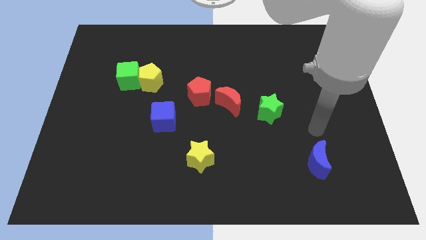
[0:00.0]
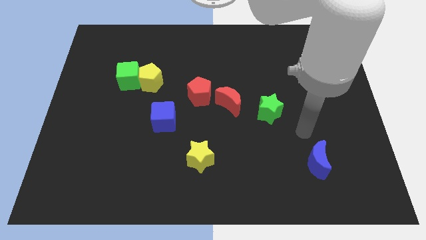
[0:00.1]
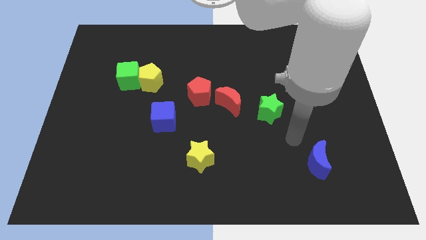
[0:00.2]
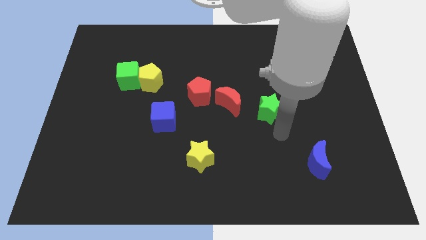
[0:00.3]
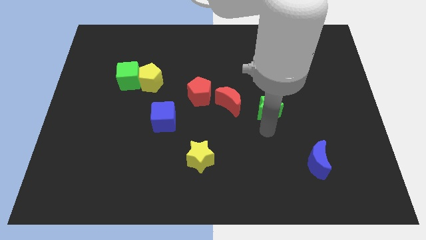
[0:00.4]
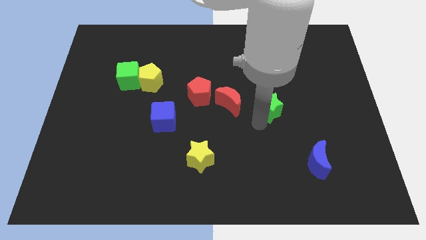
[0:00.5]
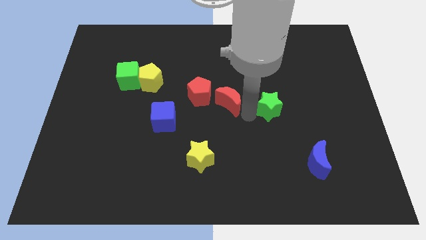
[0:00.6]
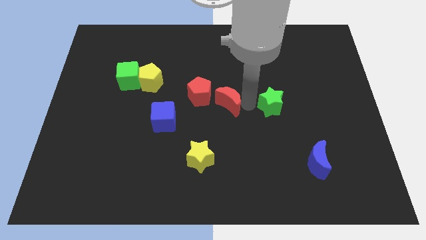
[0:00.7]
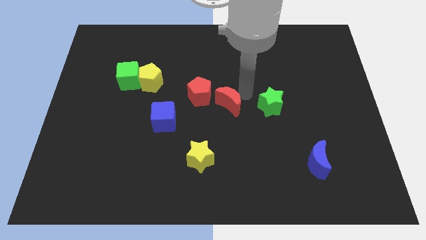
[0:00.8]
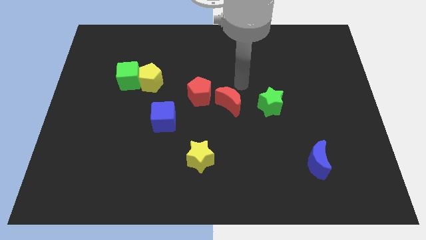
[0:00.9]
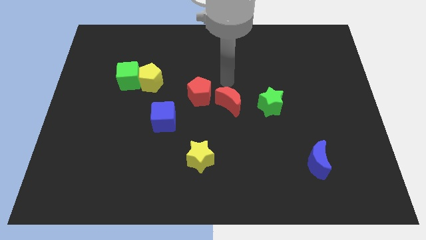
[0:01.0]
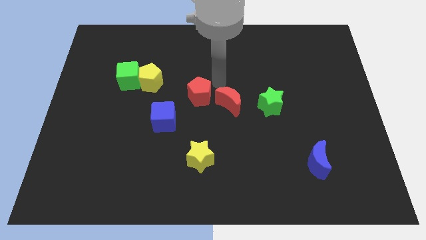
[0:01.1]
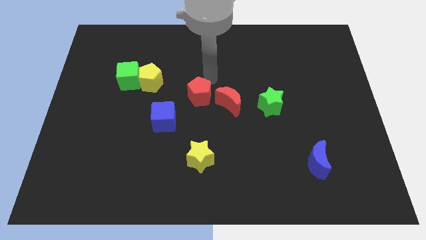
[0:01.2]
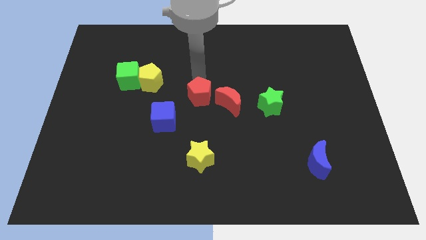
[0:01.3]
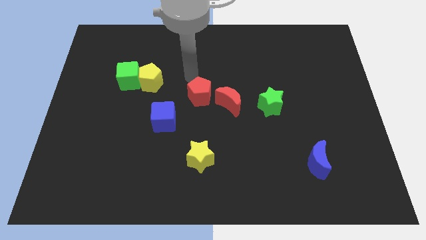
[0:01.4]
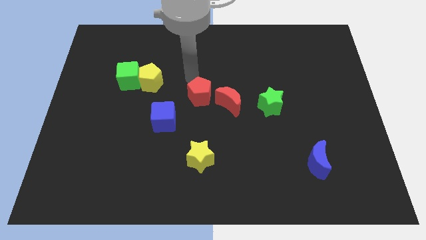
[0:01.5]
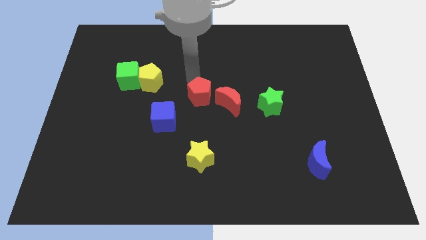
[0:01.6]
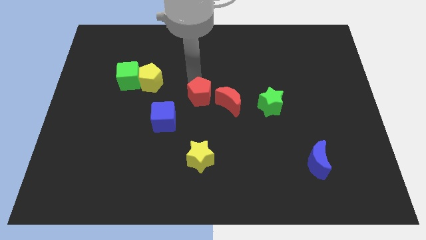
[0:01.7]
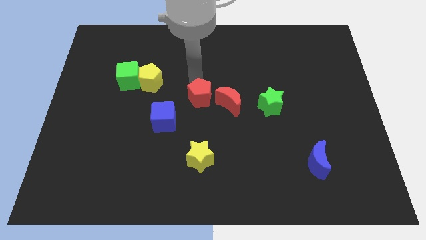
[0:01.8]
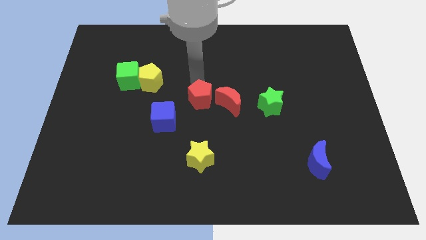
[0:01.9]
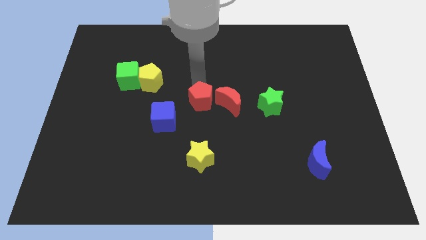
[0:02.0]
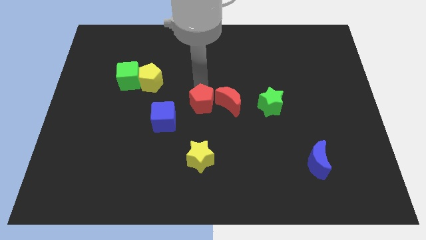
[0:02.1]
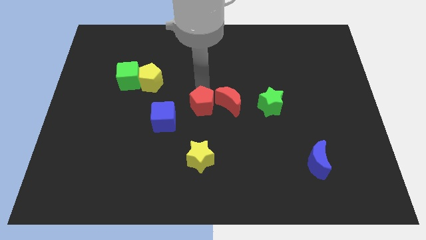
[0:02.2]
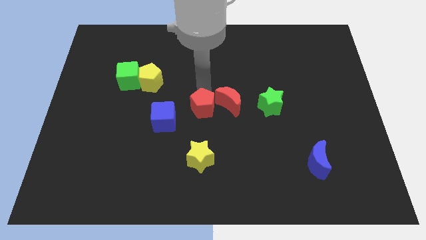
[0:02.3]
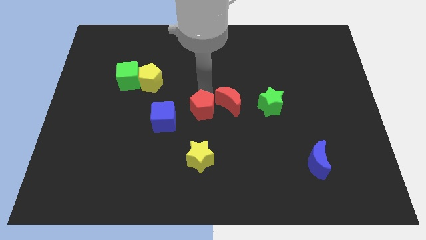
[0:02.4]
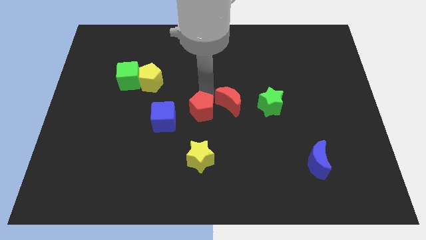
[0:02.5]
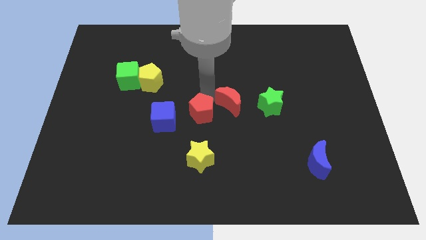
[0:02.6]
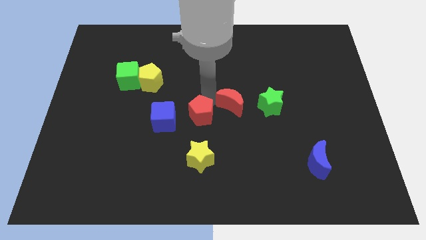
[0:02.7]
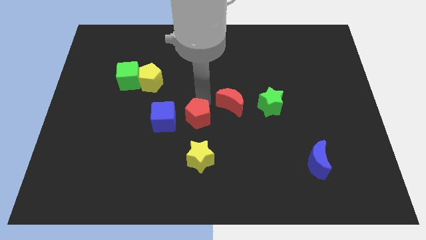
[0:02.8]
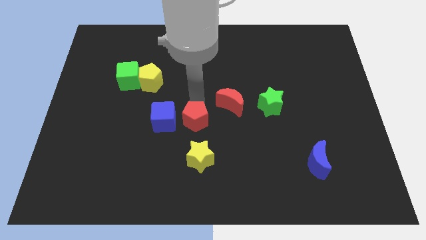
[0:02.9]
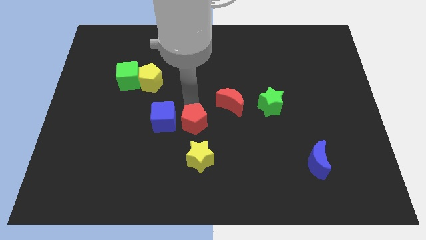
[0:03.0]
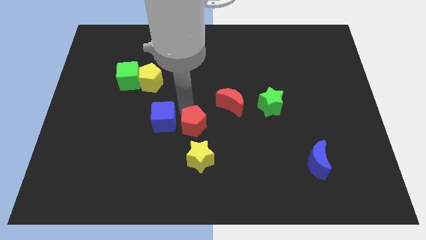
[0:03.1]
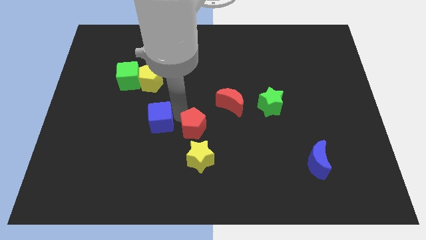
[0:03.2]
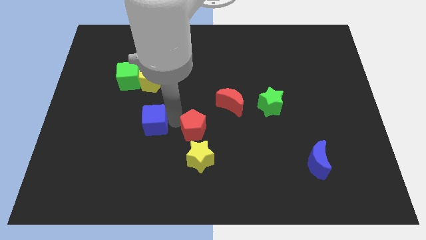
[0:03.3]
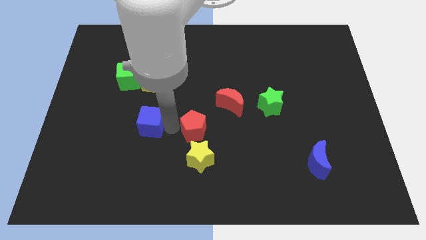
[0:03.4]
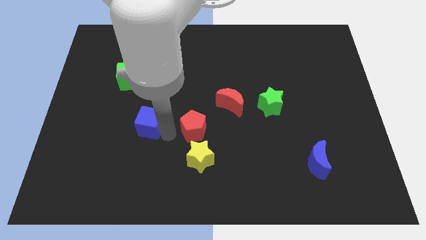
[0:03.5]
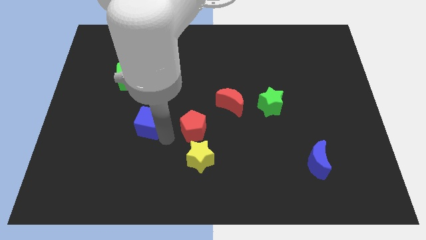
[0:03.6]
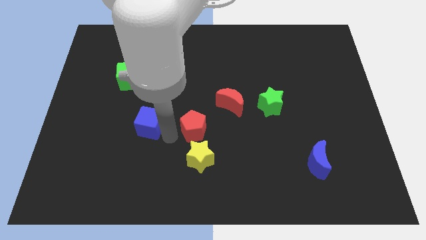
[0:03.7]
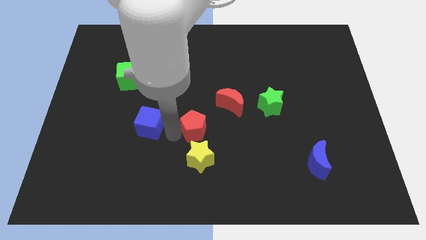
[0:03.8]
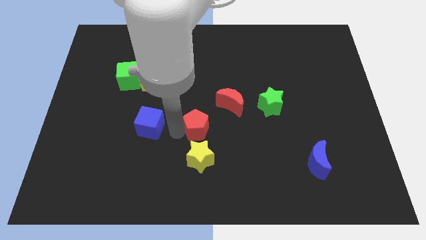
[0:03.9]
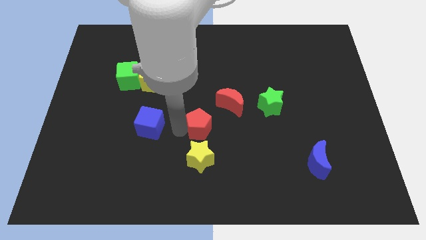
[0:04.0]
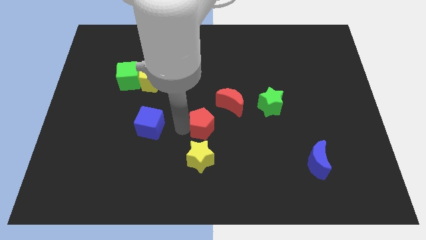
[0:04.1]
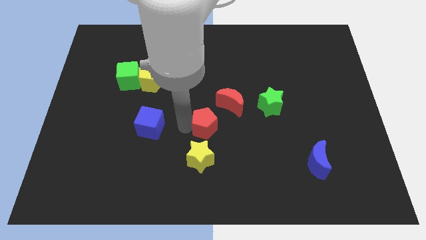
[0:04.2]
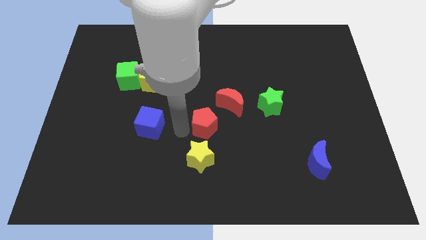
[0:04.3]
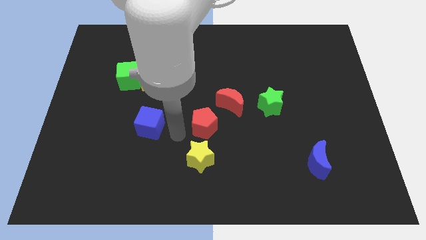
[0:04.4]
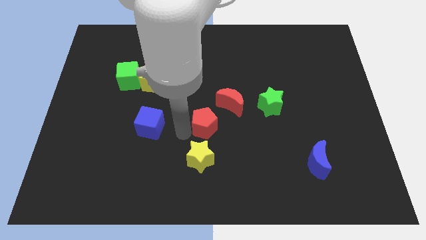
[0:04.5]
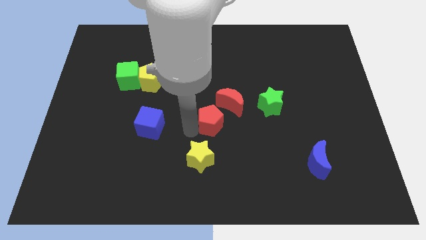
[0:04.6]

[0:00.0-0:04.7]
slide the red pentagon a bit down and then right

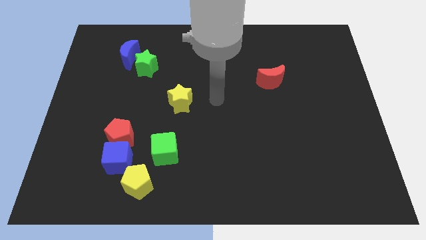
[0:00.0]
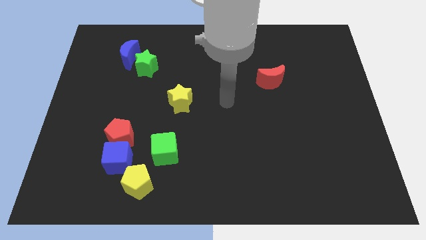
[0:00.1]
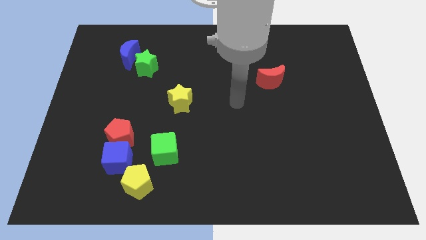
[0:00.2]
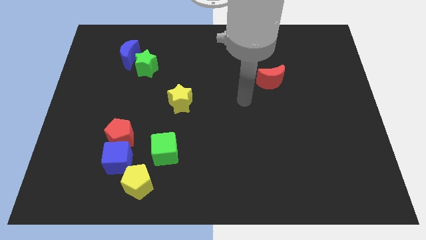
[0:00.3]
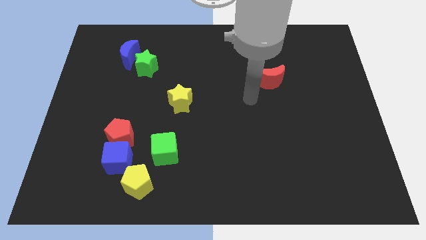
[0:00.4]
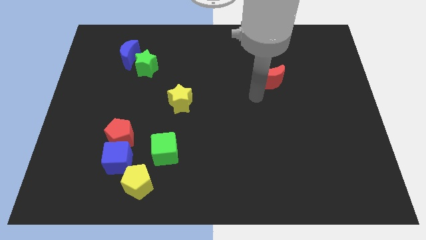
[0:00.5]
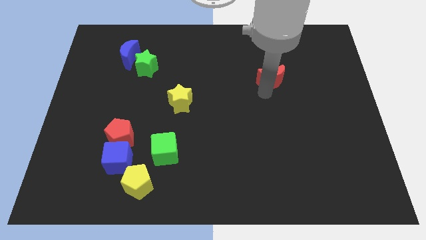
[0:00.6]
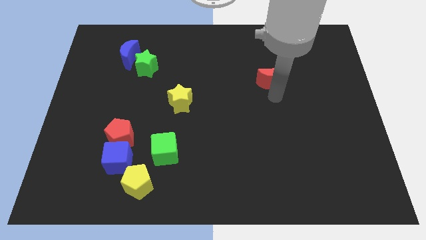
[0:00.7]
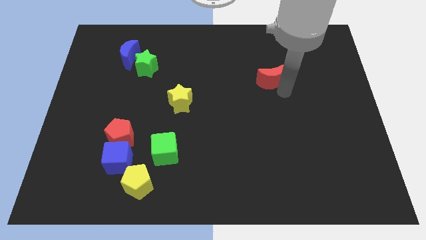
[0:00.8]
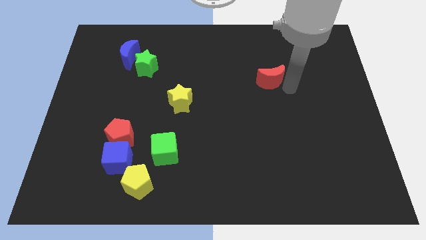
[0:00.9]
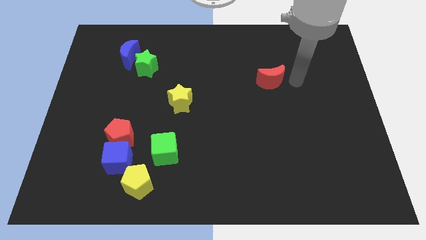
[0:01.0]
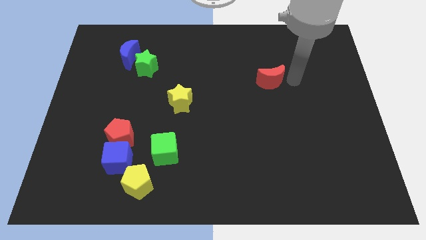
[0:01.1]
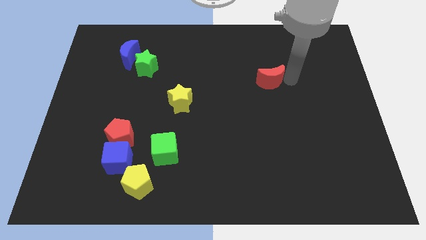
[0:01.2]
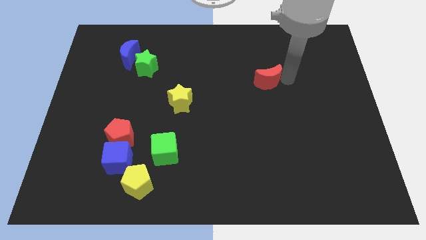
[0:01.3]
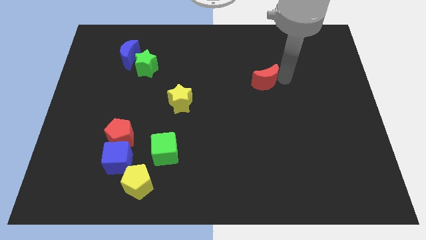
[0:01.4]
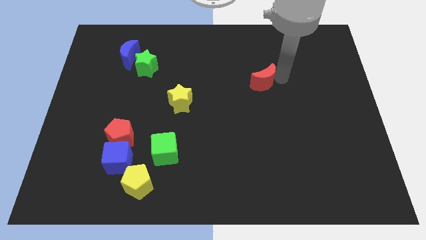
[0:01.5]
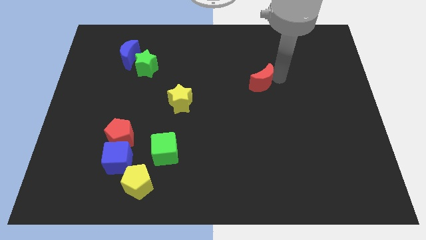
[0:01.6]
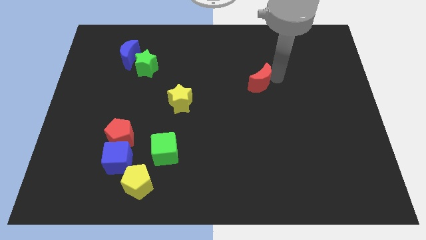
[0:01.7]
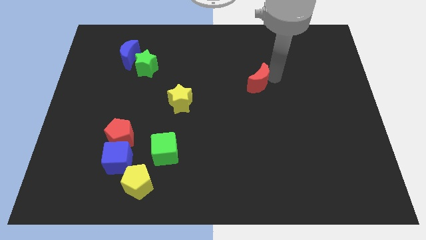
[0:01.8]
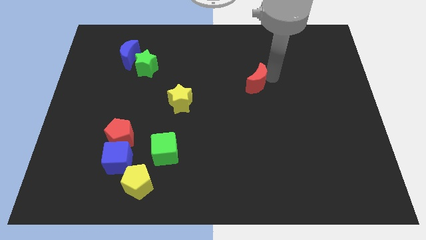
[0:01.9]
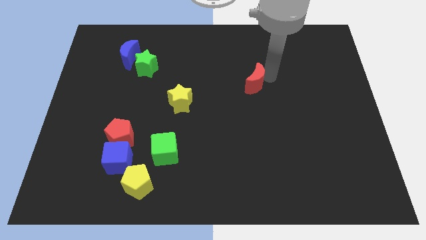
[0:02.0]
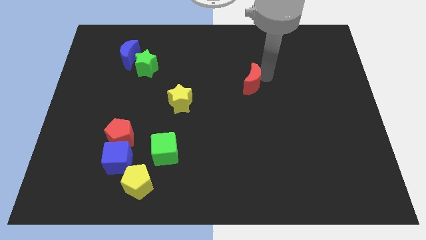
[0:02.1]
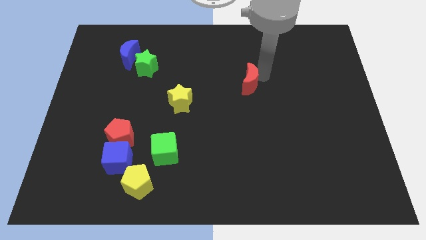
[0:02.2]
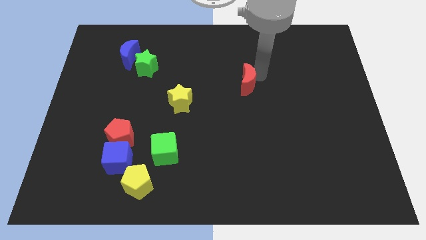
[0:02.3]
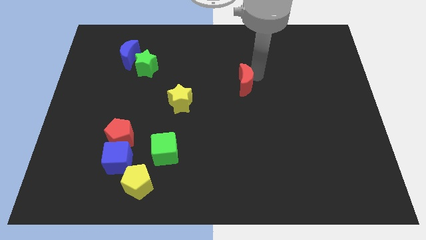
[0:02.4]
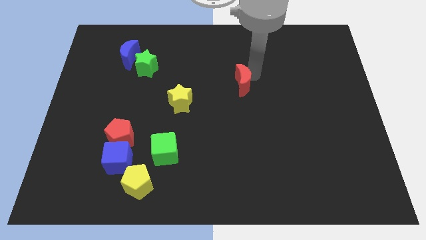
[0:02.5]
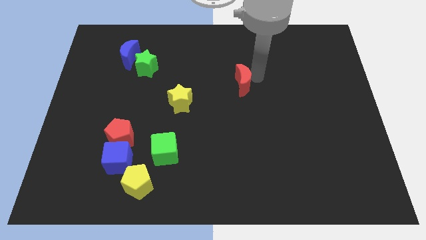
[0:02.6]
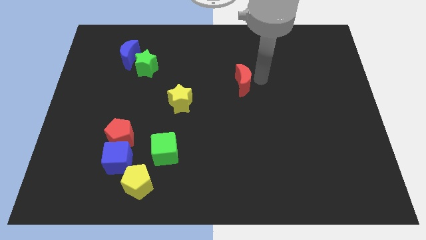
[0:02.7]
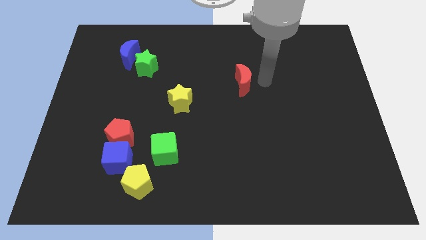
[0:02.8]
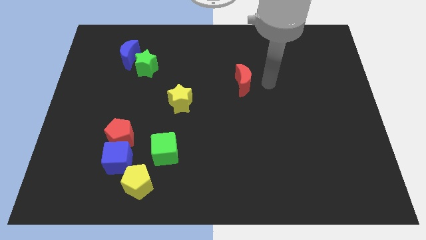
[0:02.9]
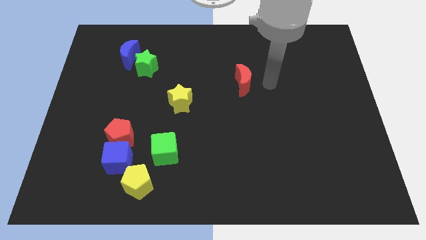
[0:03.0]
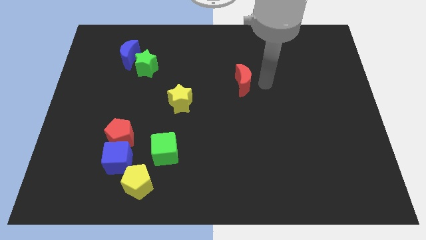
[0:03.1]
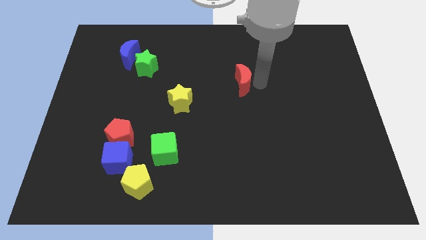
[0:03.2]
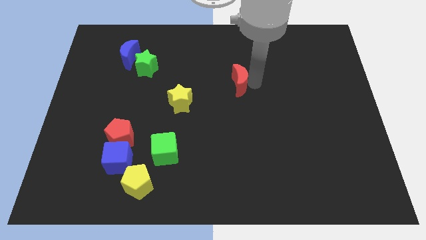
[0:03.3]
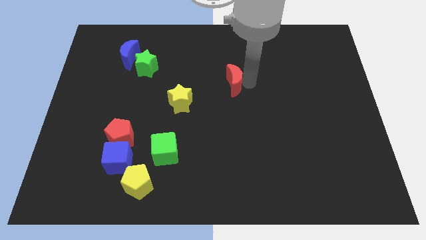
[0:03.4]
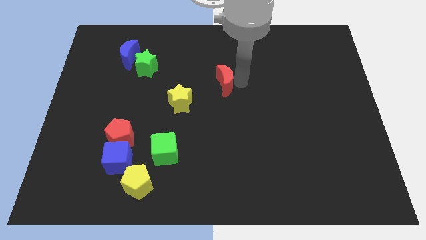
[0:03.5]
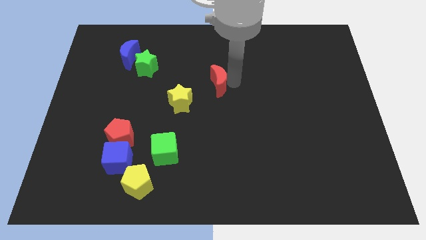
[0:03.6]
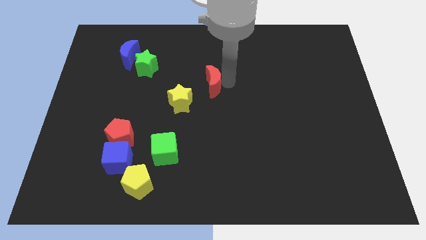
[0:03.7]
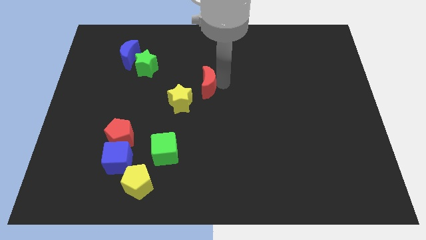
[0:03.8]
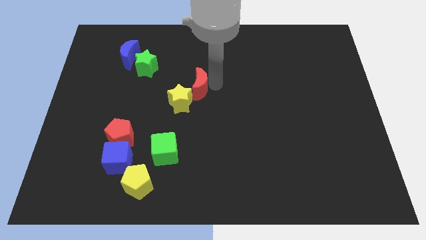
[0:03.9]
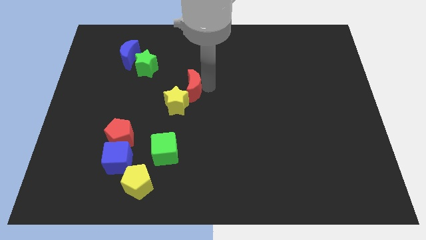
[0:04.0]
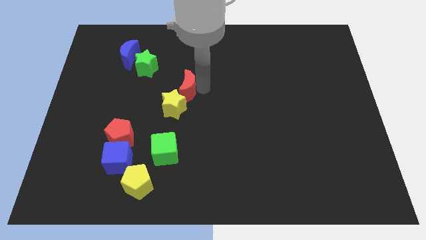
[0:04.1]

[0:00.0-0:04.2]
push the red moon to the left
